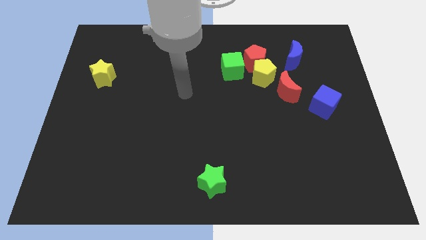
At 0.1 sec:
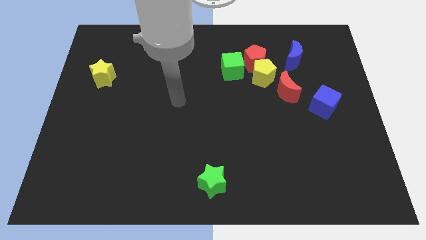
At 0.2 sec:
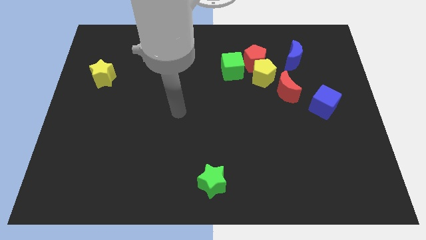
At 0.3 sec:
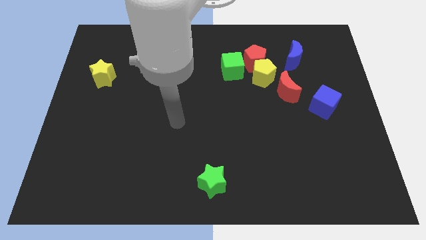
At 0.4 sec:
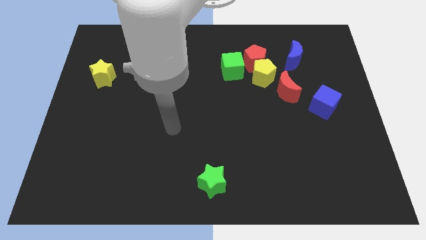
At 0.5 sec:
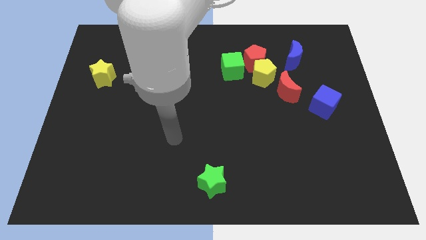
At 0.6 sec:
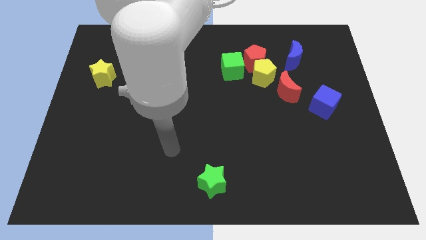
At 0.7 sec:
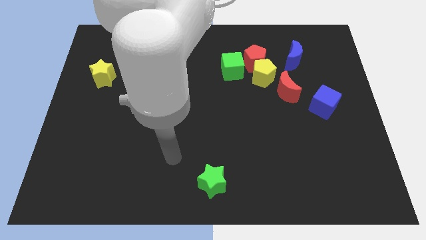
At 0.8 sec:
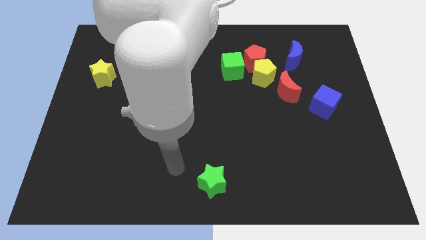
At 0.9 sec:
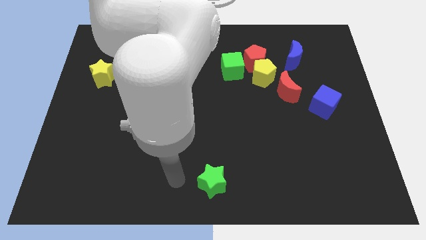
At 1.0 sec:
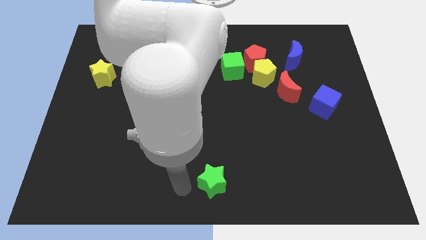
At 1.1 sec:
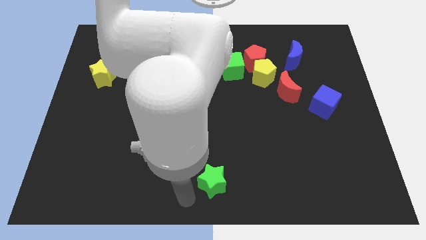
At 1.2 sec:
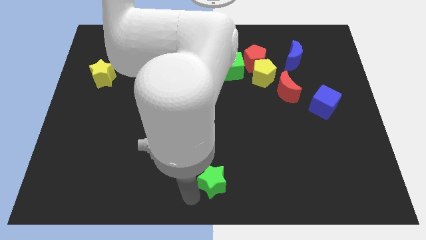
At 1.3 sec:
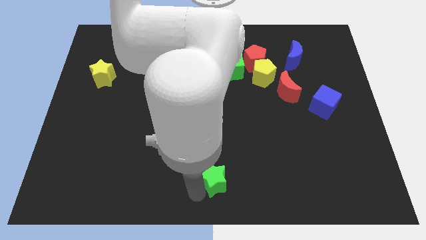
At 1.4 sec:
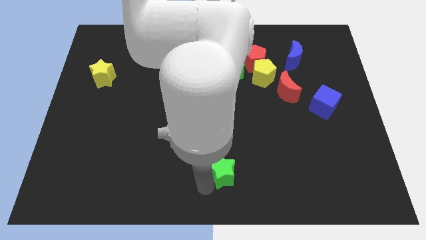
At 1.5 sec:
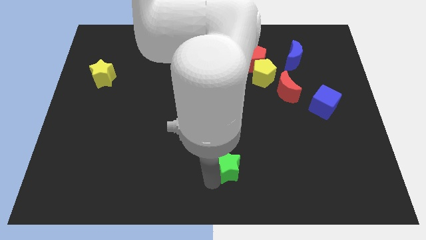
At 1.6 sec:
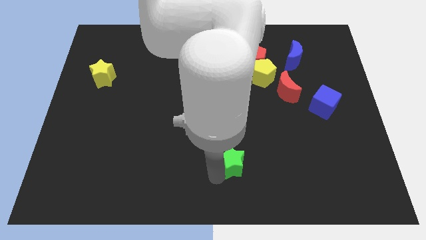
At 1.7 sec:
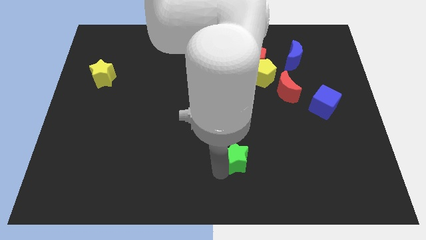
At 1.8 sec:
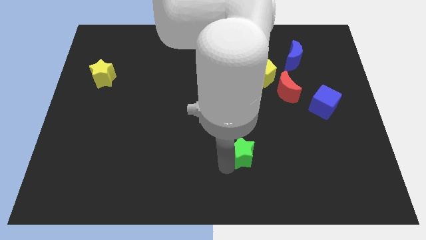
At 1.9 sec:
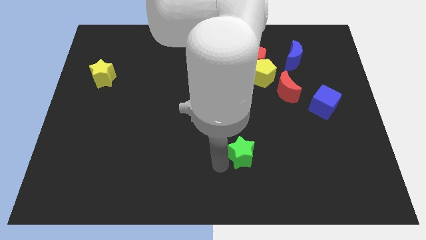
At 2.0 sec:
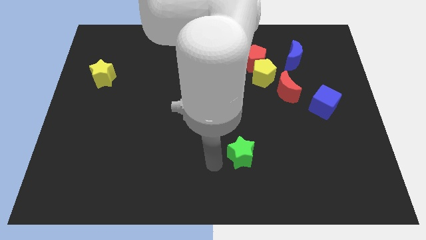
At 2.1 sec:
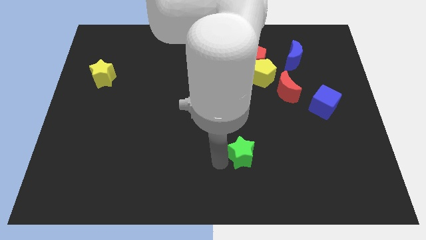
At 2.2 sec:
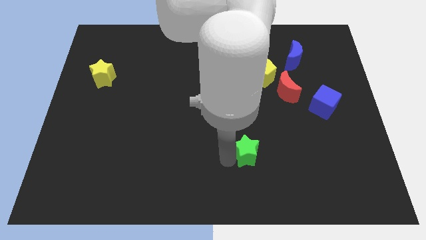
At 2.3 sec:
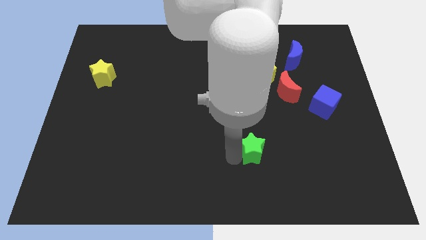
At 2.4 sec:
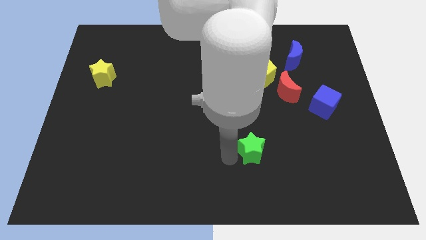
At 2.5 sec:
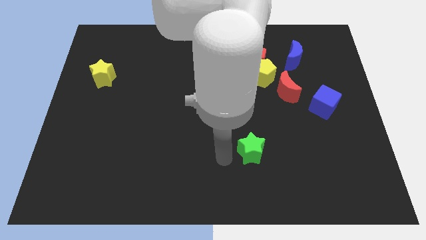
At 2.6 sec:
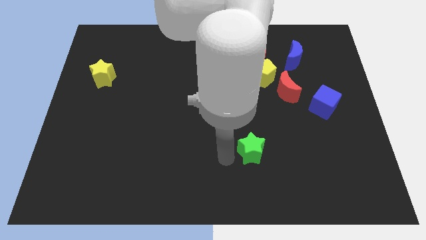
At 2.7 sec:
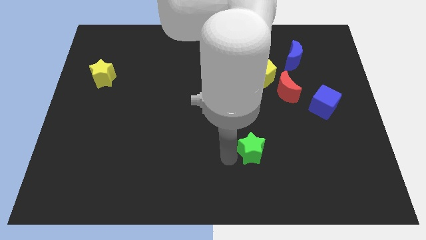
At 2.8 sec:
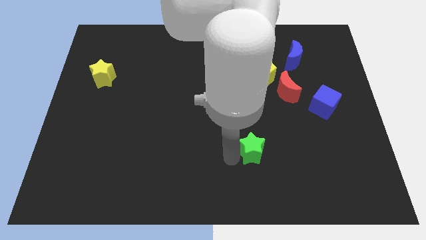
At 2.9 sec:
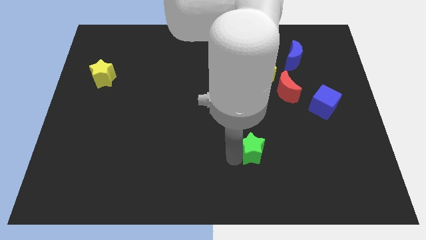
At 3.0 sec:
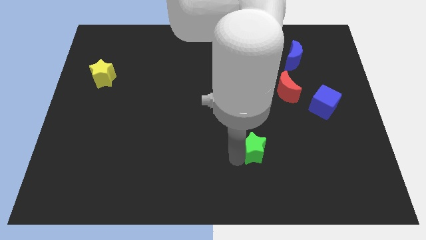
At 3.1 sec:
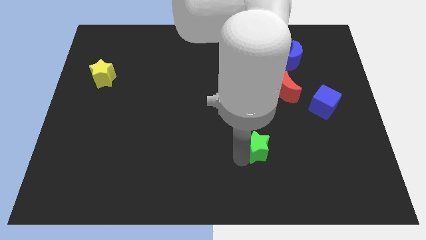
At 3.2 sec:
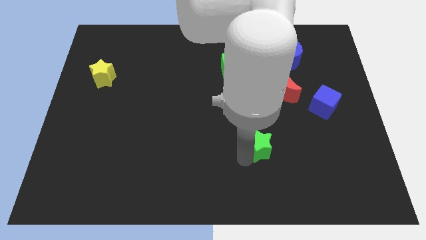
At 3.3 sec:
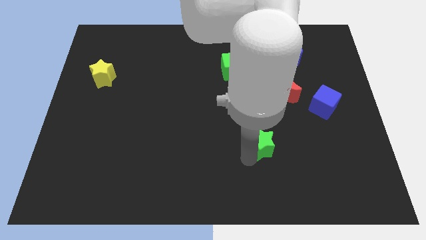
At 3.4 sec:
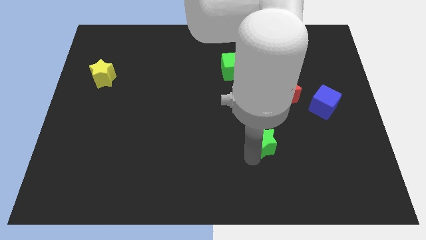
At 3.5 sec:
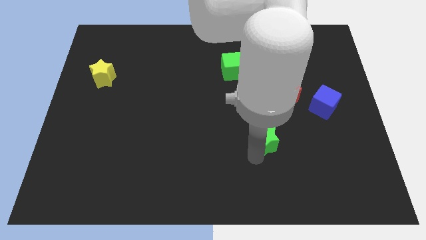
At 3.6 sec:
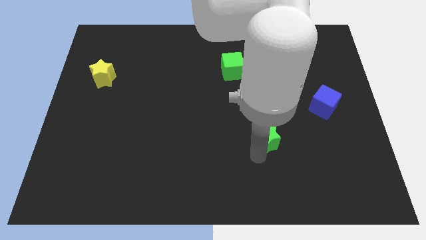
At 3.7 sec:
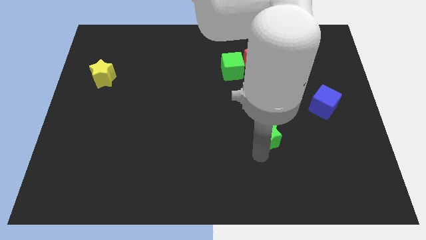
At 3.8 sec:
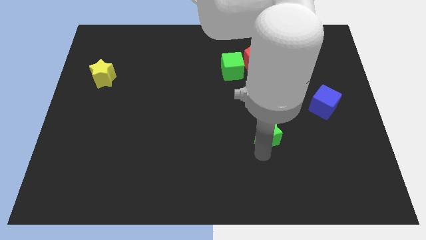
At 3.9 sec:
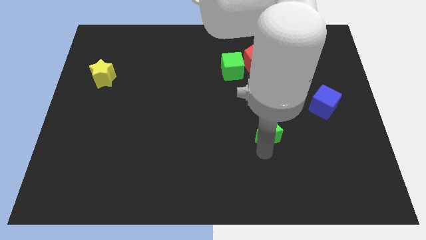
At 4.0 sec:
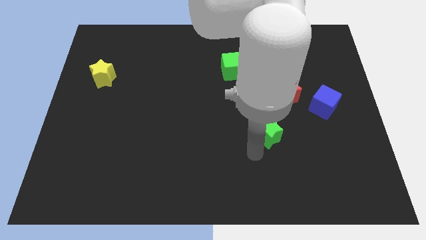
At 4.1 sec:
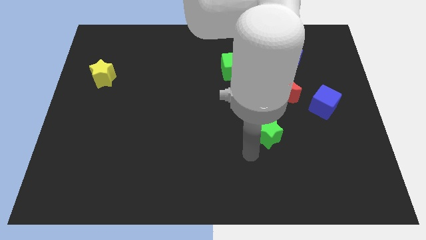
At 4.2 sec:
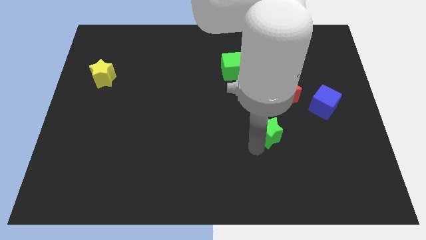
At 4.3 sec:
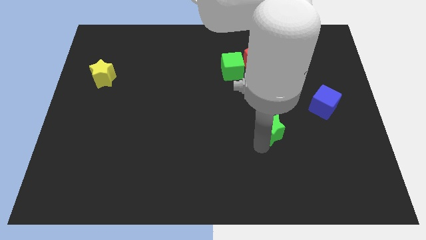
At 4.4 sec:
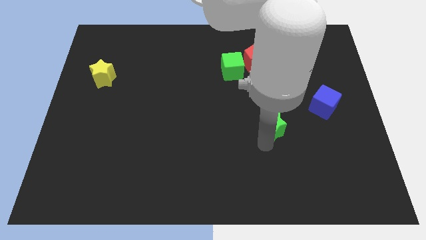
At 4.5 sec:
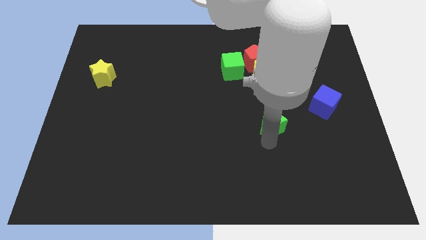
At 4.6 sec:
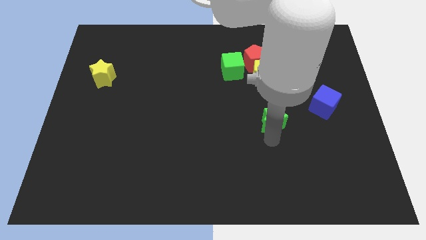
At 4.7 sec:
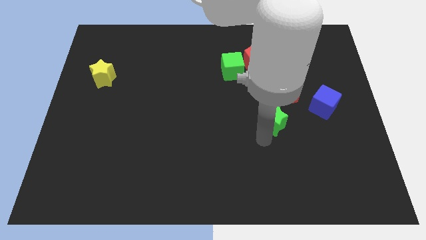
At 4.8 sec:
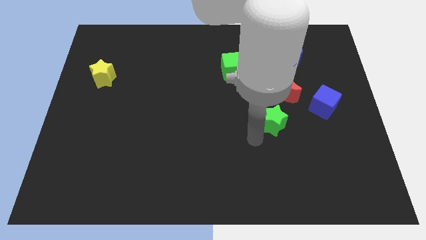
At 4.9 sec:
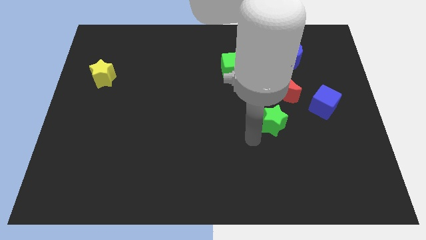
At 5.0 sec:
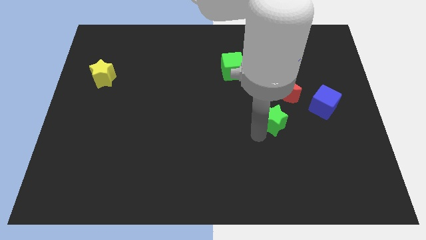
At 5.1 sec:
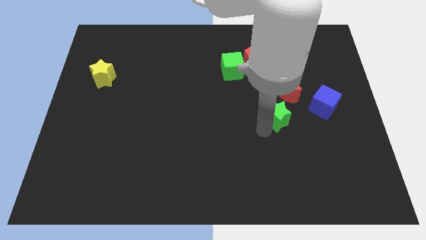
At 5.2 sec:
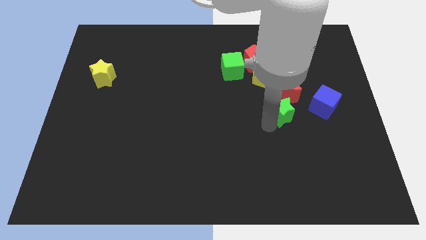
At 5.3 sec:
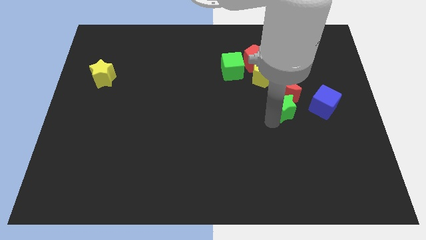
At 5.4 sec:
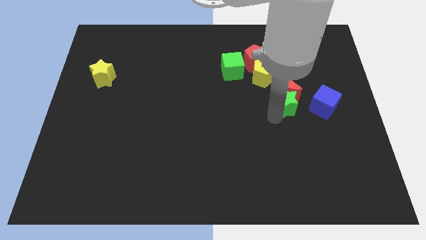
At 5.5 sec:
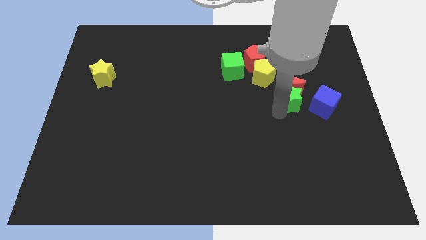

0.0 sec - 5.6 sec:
slide the green star to the bottom side of the blue moon

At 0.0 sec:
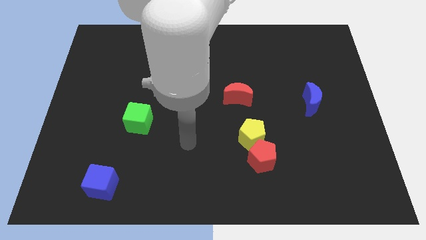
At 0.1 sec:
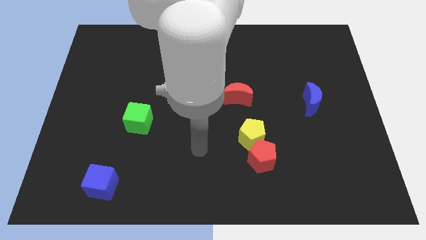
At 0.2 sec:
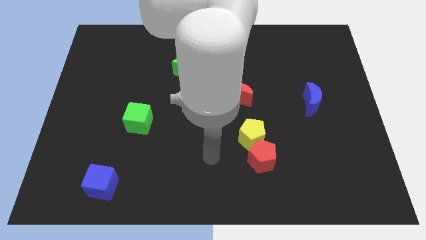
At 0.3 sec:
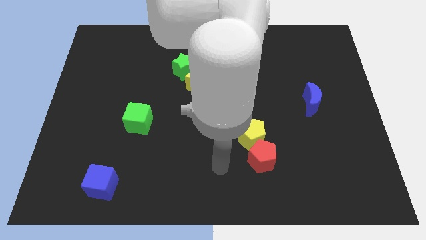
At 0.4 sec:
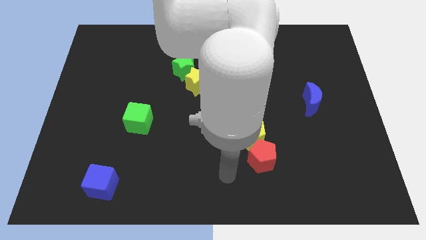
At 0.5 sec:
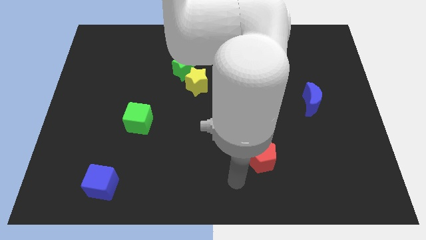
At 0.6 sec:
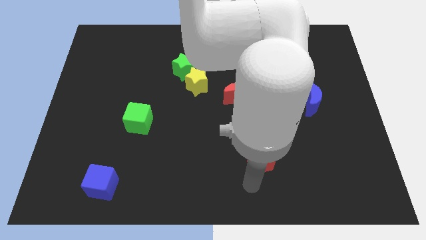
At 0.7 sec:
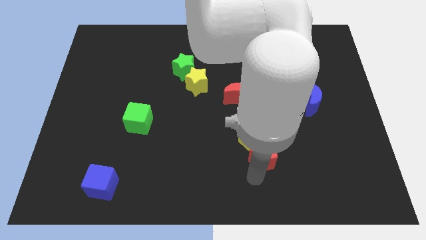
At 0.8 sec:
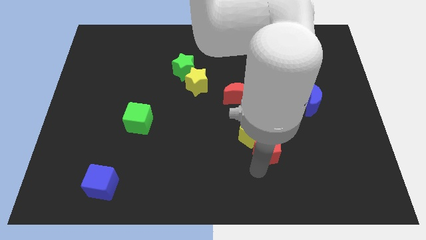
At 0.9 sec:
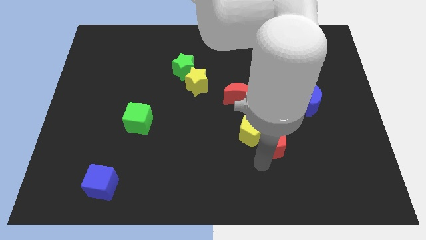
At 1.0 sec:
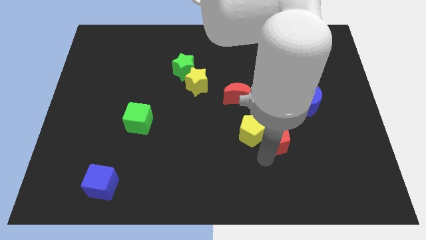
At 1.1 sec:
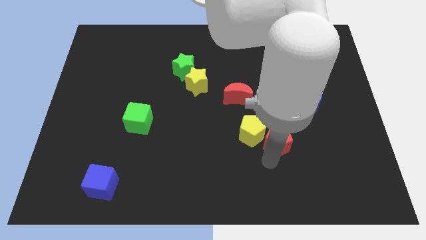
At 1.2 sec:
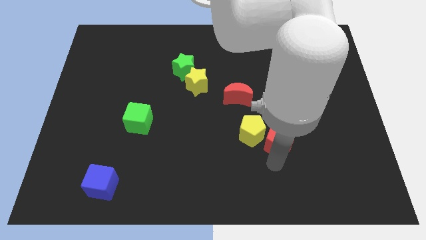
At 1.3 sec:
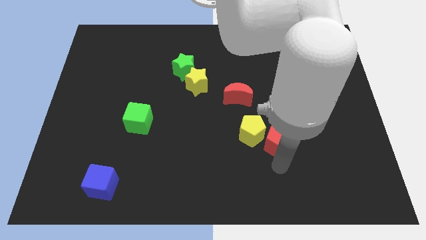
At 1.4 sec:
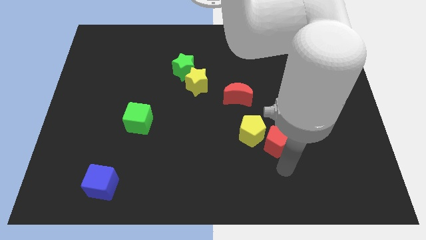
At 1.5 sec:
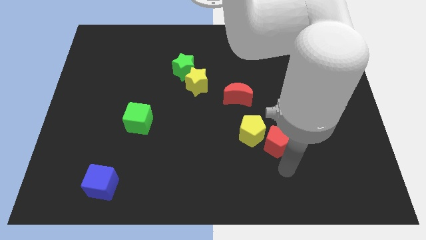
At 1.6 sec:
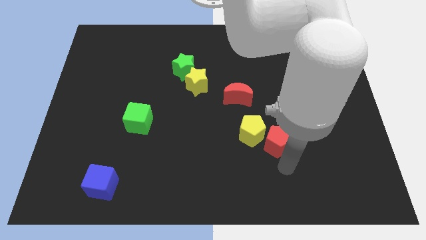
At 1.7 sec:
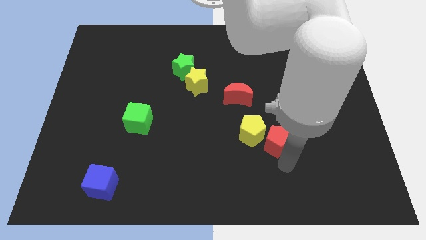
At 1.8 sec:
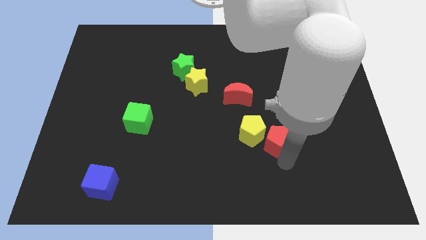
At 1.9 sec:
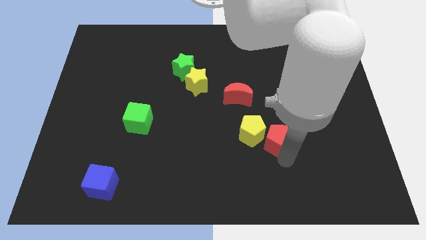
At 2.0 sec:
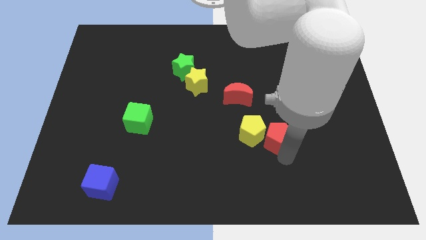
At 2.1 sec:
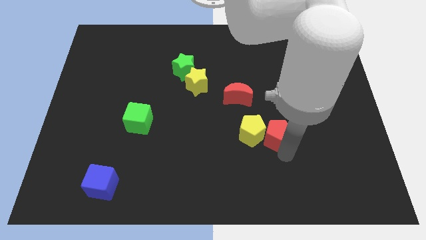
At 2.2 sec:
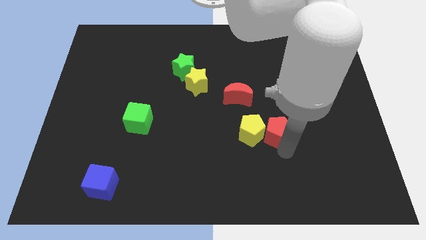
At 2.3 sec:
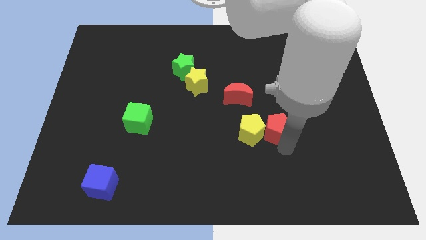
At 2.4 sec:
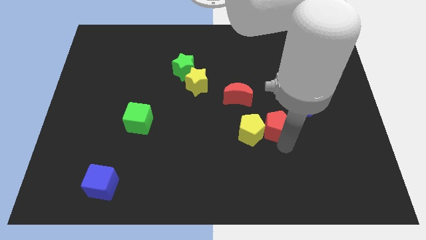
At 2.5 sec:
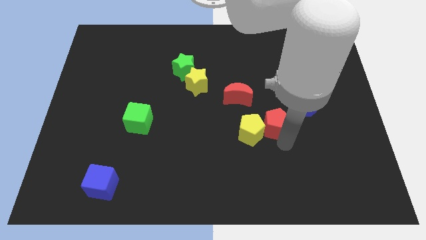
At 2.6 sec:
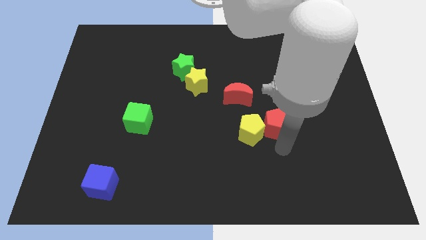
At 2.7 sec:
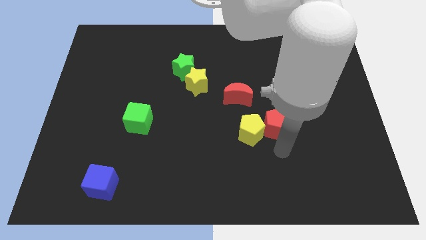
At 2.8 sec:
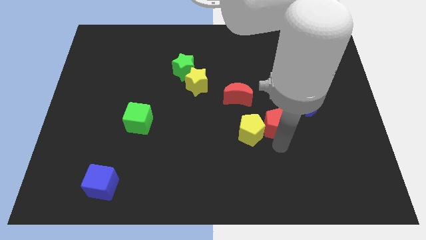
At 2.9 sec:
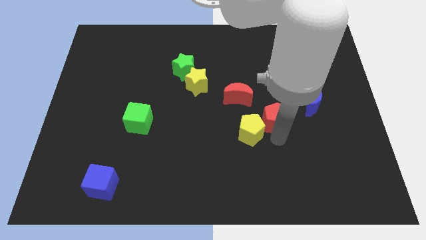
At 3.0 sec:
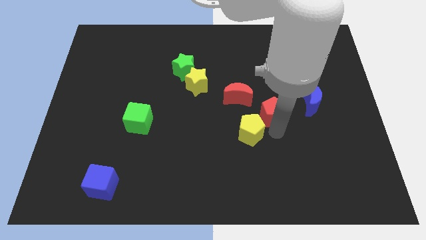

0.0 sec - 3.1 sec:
put the red pentagon left of the blue moon
